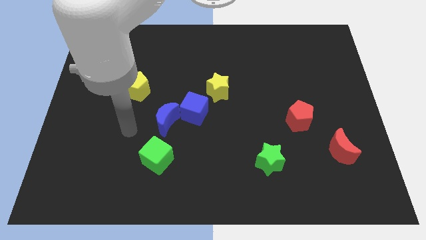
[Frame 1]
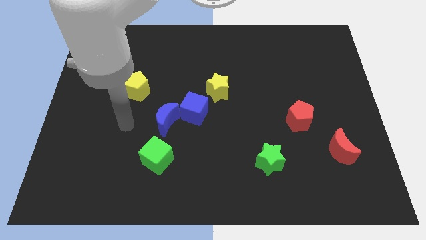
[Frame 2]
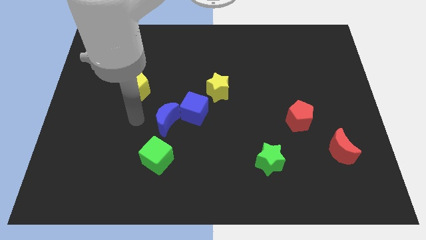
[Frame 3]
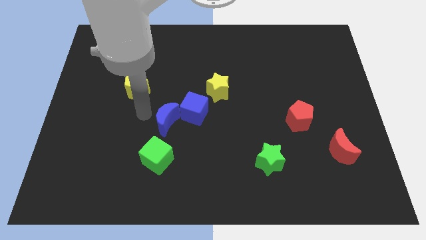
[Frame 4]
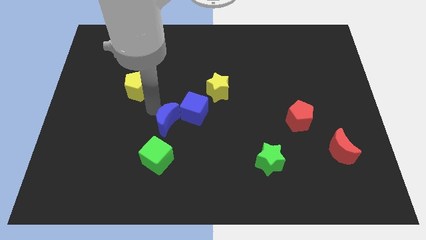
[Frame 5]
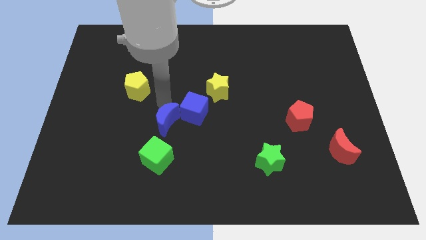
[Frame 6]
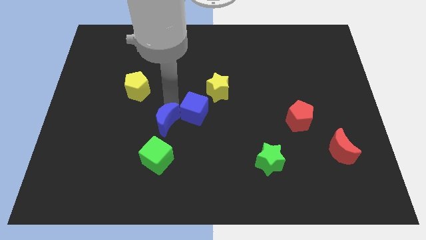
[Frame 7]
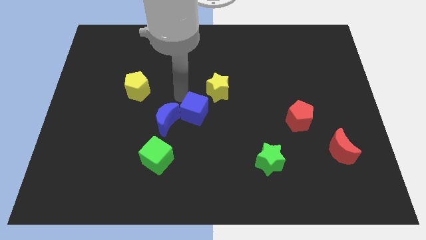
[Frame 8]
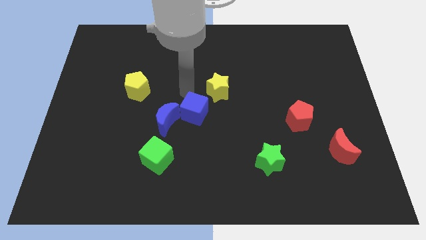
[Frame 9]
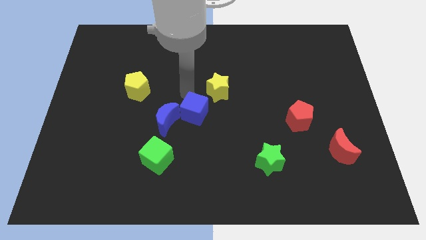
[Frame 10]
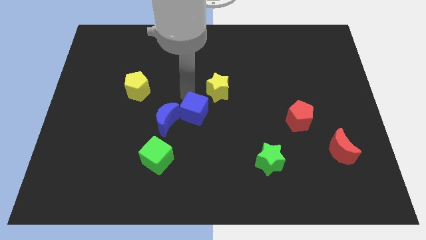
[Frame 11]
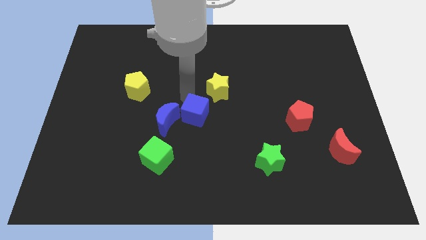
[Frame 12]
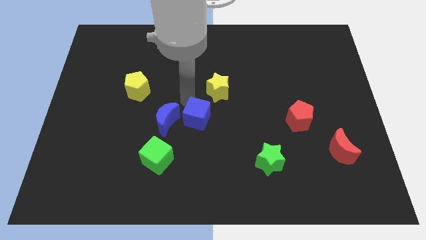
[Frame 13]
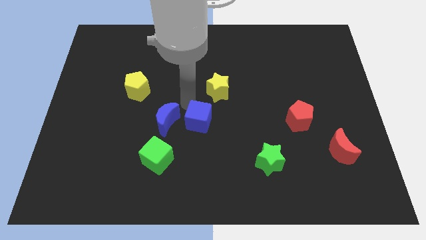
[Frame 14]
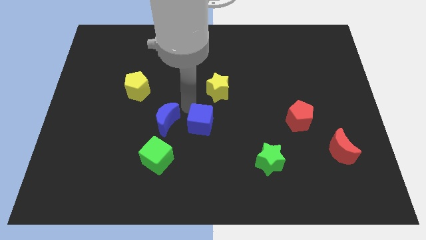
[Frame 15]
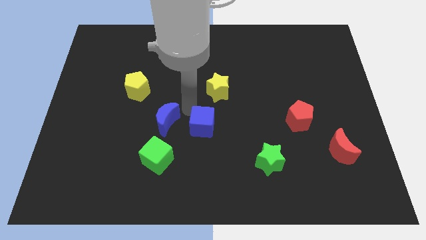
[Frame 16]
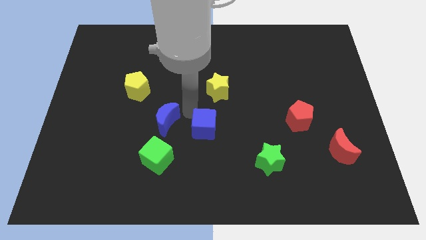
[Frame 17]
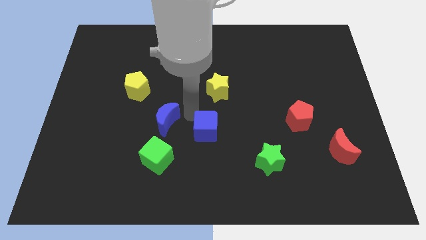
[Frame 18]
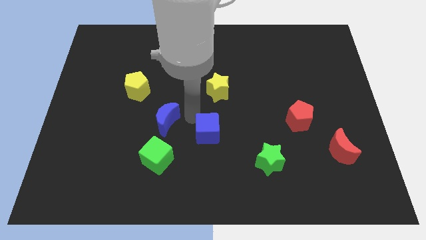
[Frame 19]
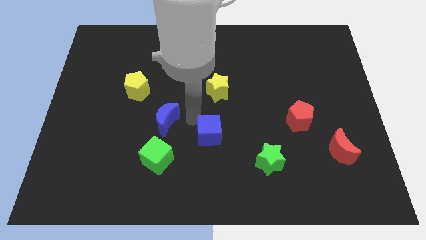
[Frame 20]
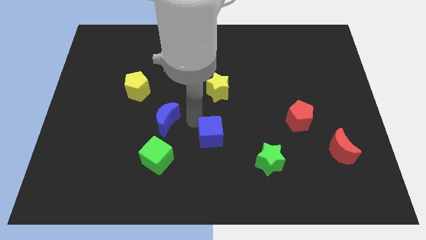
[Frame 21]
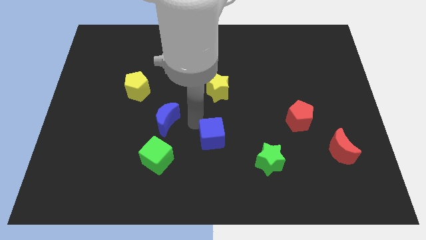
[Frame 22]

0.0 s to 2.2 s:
pull the blue cube apart from the blue moon and yellow star

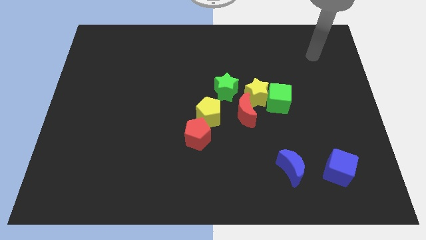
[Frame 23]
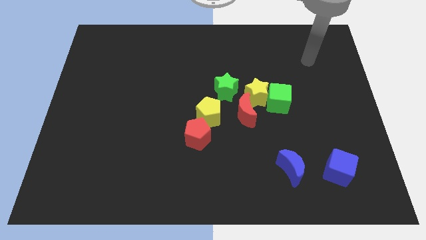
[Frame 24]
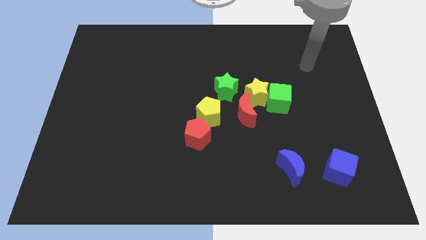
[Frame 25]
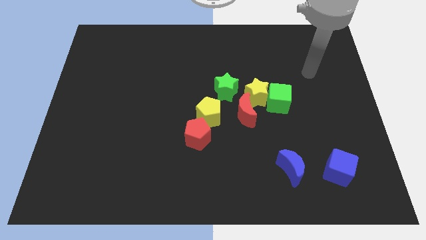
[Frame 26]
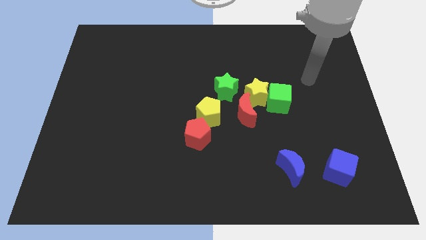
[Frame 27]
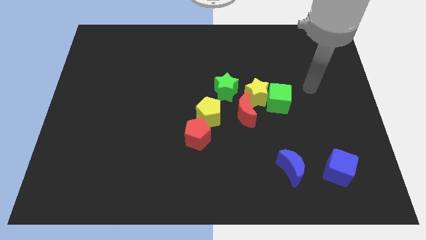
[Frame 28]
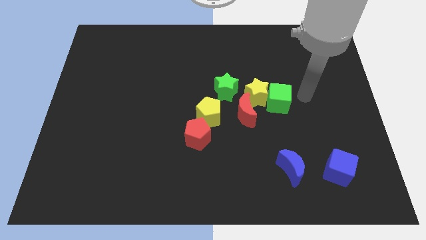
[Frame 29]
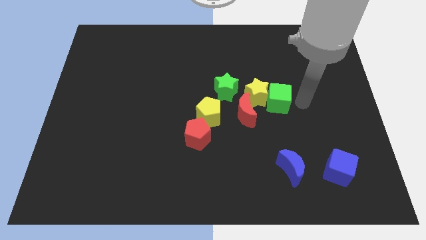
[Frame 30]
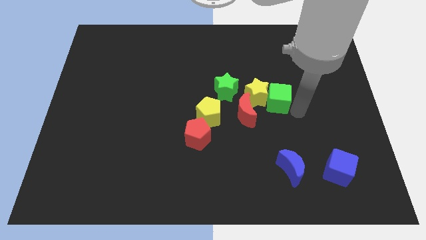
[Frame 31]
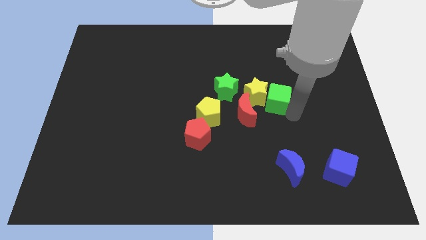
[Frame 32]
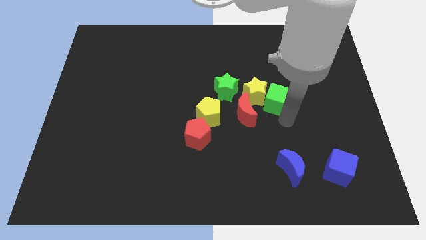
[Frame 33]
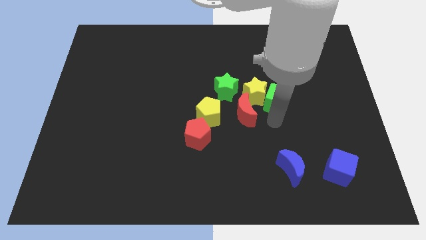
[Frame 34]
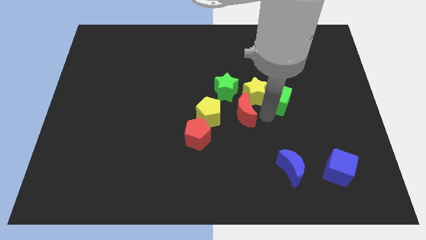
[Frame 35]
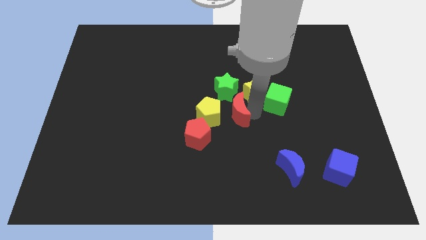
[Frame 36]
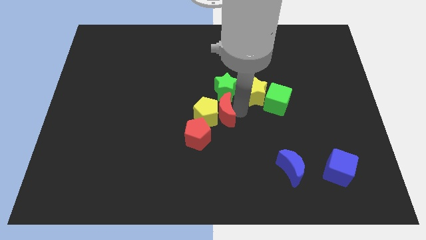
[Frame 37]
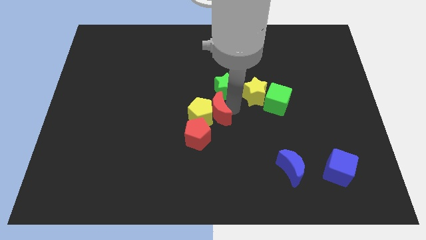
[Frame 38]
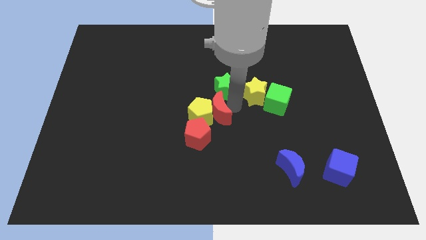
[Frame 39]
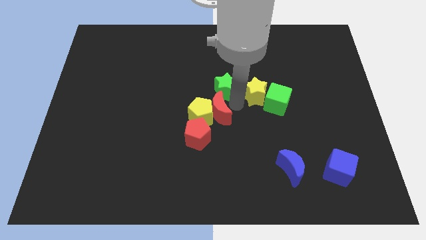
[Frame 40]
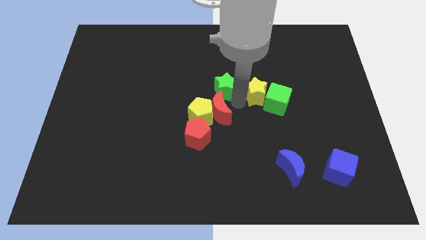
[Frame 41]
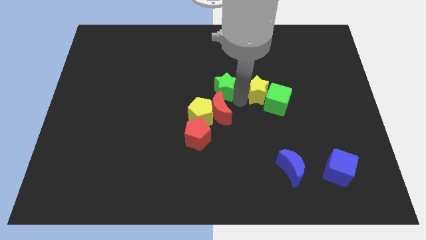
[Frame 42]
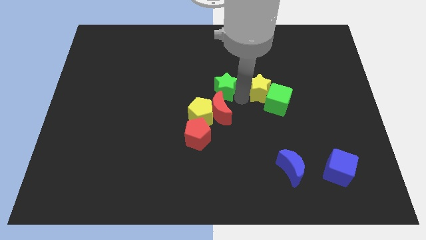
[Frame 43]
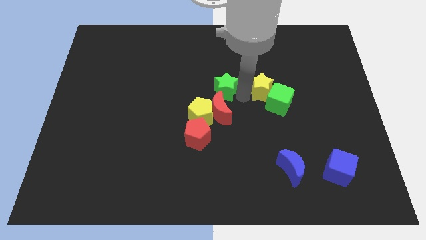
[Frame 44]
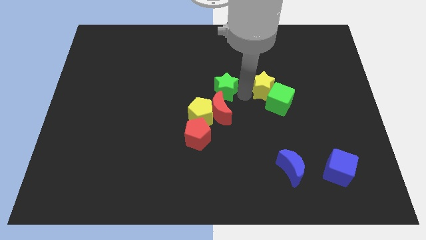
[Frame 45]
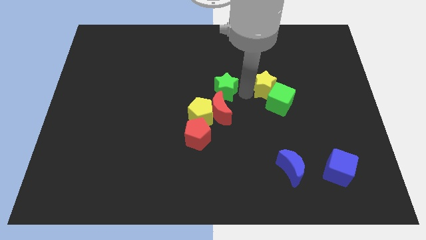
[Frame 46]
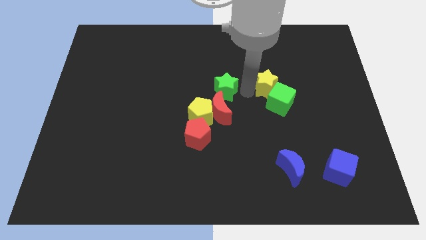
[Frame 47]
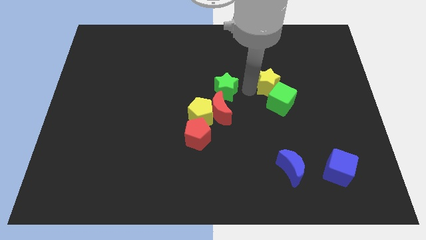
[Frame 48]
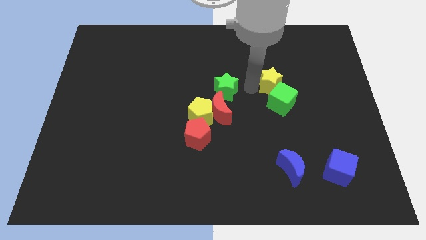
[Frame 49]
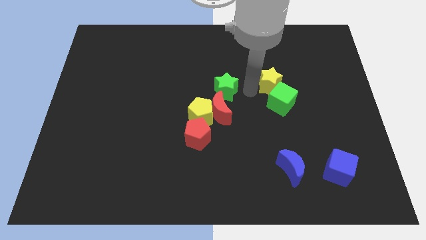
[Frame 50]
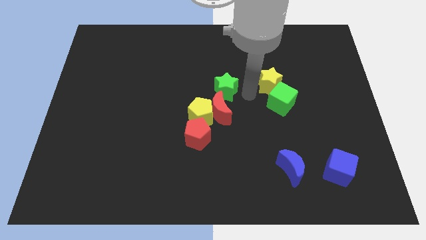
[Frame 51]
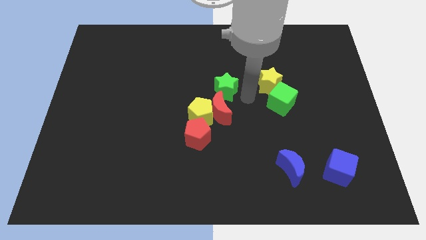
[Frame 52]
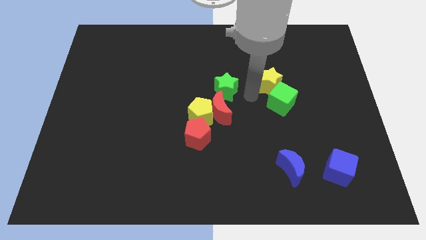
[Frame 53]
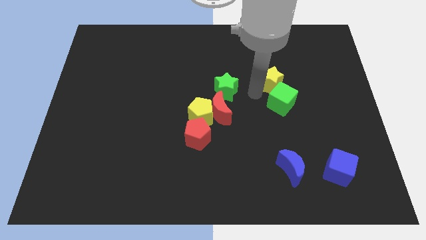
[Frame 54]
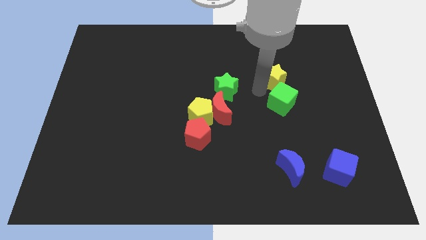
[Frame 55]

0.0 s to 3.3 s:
separate the yellow star from the group

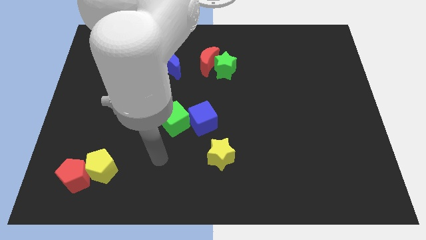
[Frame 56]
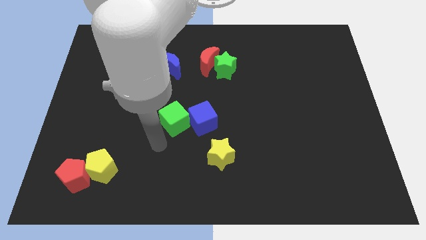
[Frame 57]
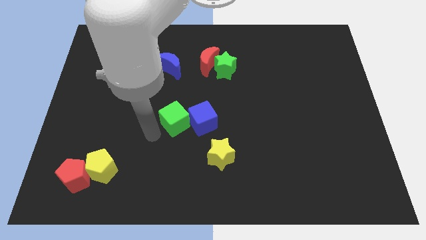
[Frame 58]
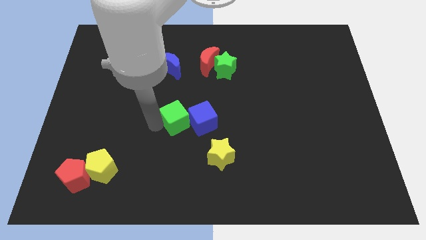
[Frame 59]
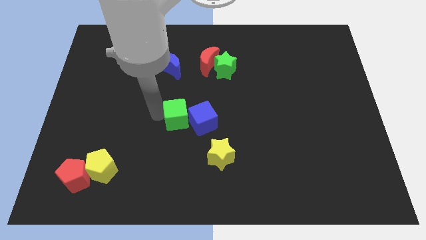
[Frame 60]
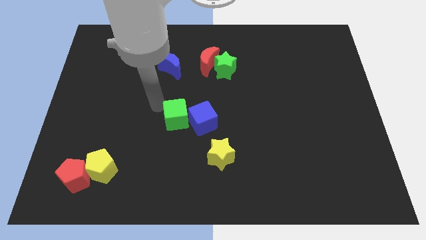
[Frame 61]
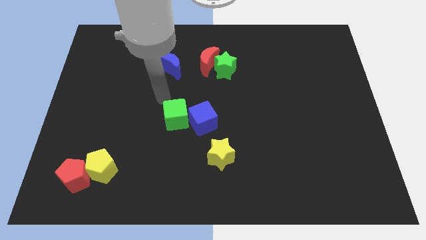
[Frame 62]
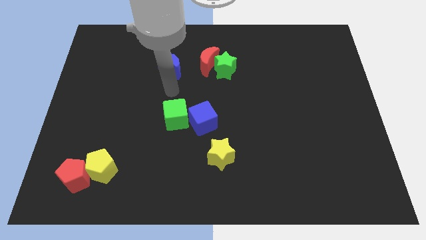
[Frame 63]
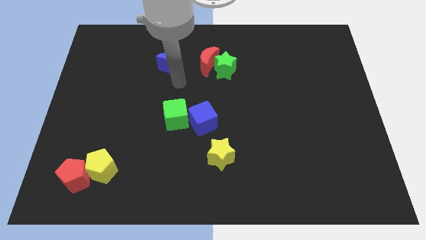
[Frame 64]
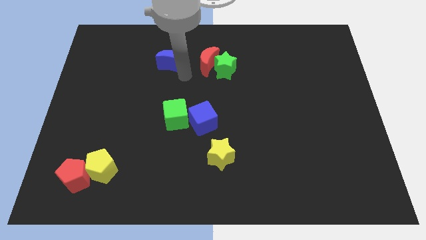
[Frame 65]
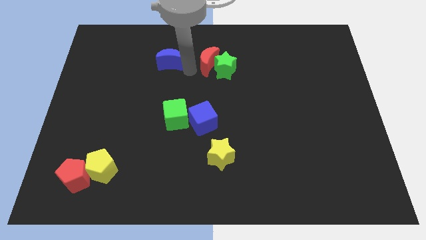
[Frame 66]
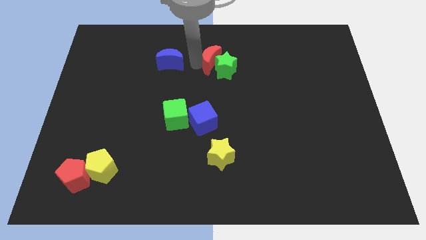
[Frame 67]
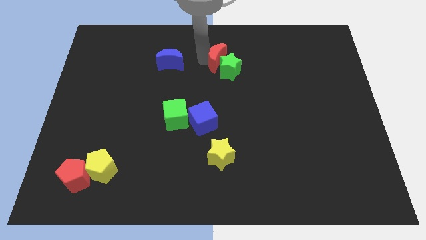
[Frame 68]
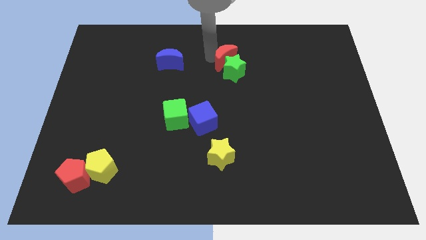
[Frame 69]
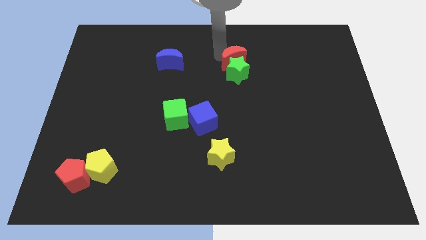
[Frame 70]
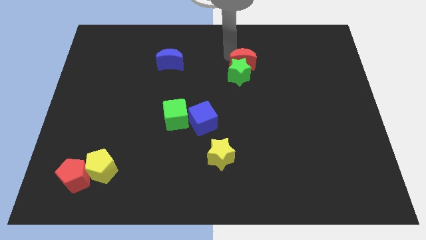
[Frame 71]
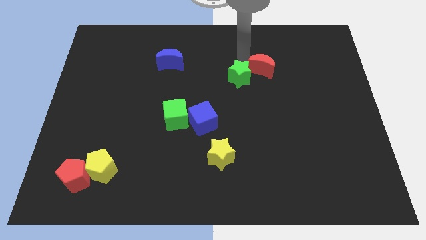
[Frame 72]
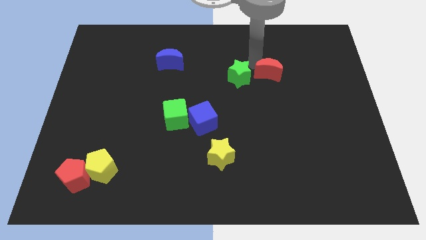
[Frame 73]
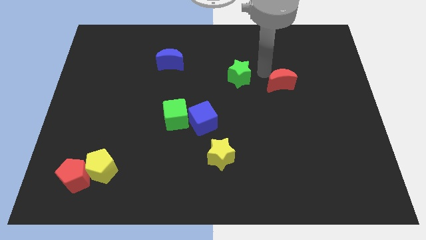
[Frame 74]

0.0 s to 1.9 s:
move the green star away from the red moon

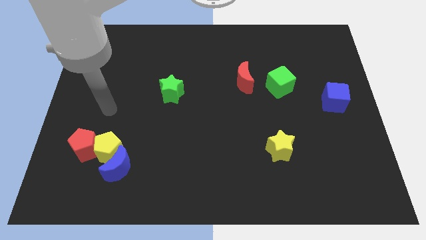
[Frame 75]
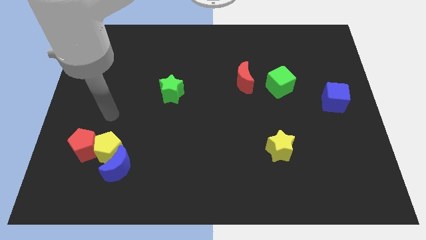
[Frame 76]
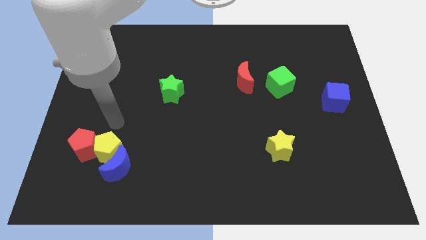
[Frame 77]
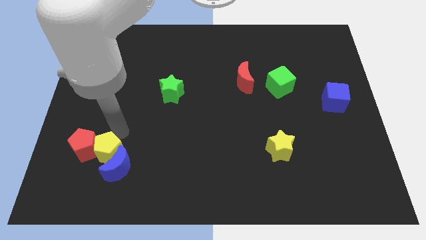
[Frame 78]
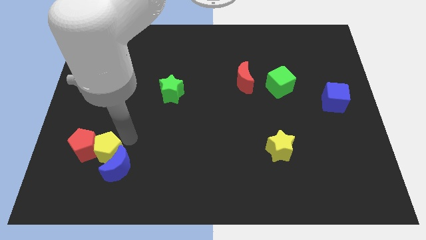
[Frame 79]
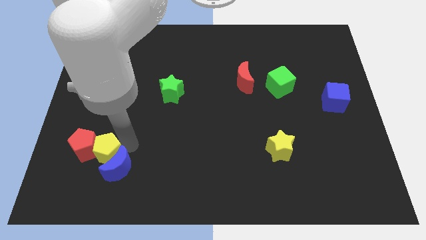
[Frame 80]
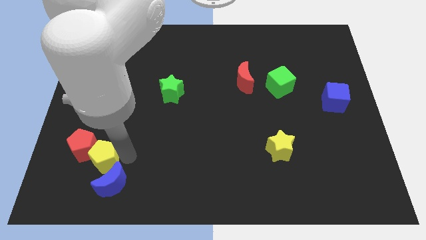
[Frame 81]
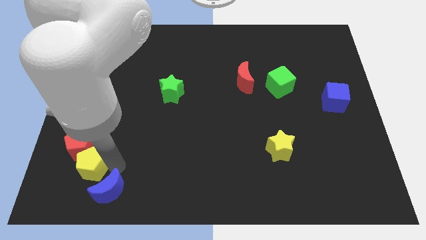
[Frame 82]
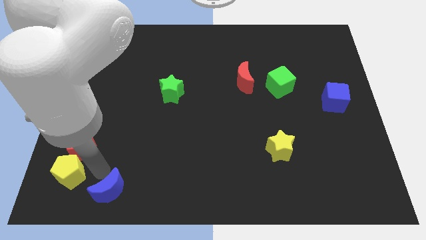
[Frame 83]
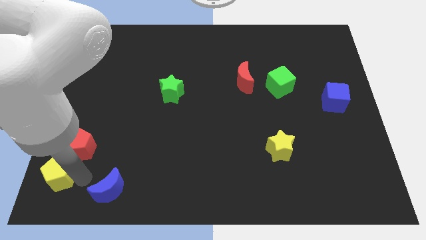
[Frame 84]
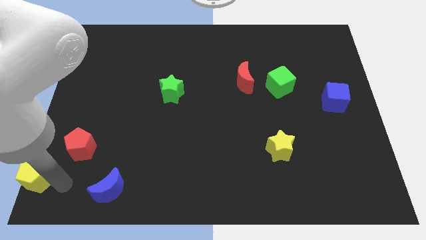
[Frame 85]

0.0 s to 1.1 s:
separate the yellow pentagon from the blue moon and red pentagon

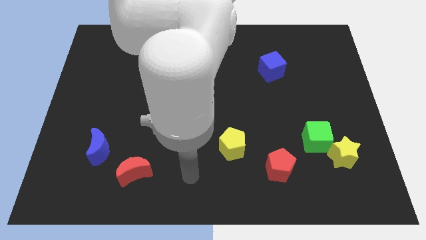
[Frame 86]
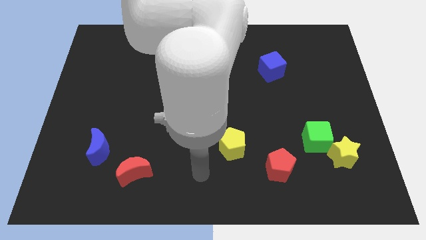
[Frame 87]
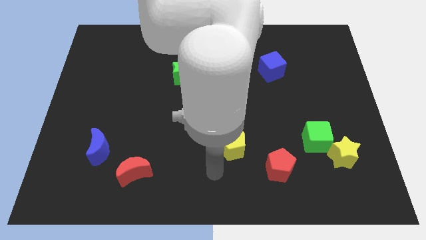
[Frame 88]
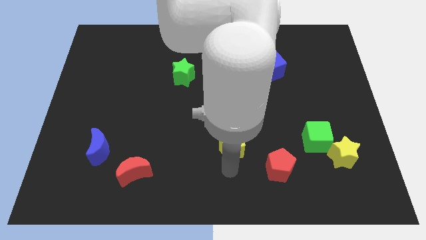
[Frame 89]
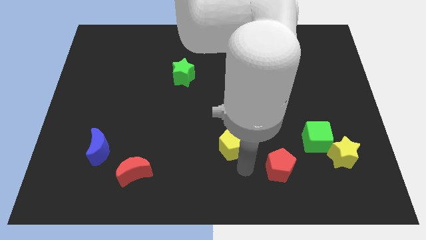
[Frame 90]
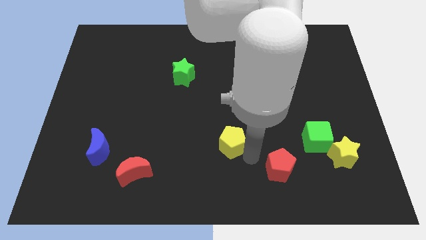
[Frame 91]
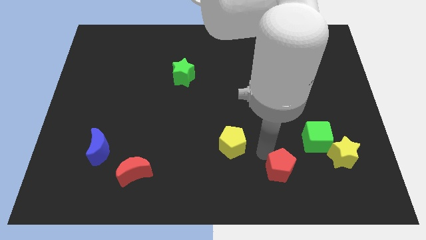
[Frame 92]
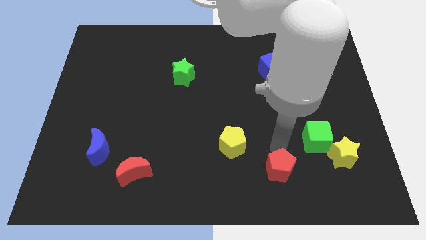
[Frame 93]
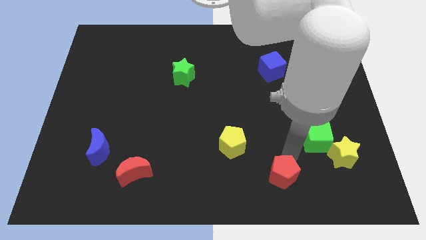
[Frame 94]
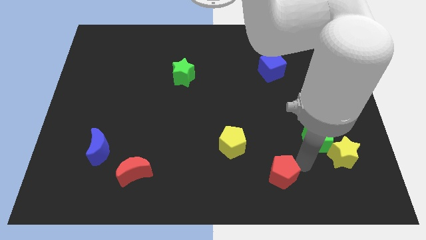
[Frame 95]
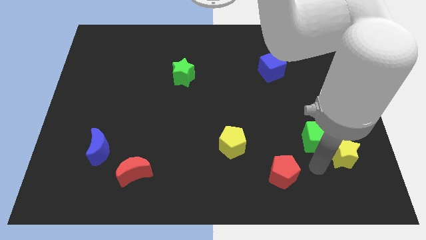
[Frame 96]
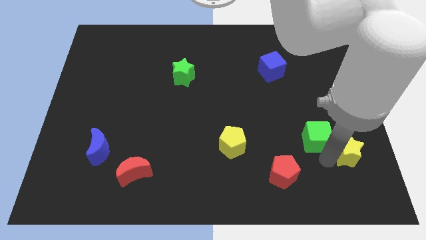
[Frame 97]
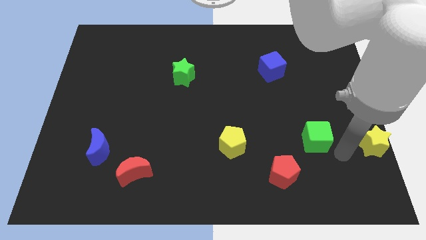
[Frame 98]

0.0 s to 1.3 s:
move the green cube away from the yellow star
